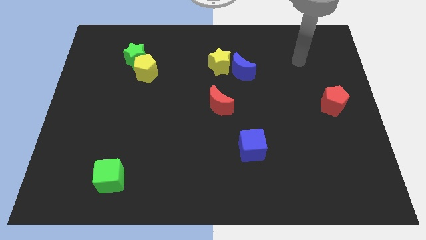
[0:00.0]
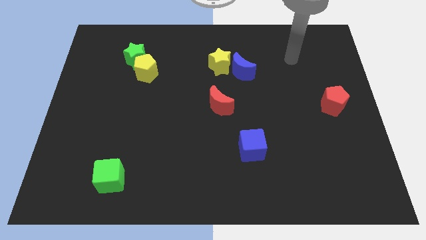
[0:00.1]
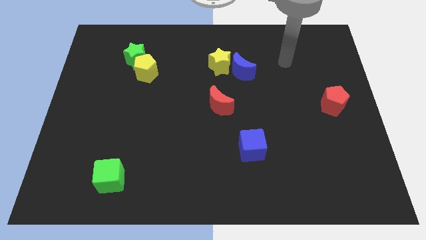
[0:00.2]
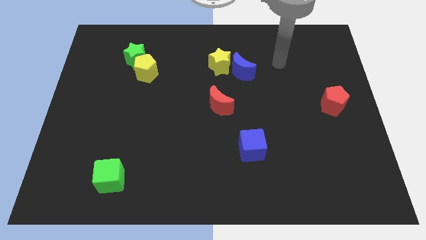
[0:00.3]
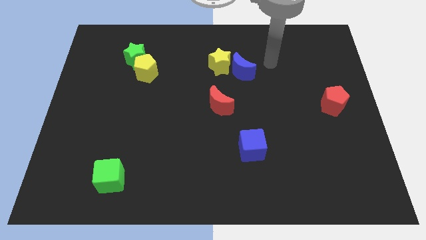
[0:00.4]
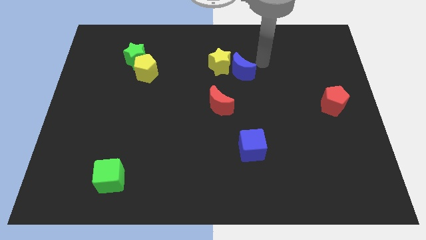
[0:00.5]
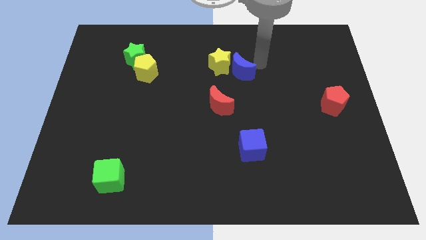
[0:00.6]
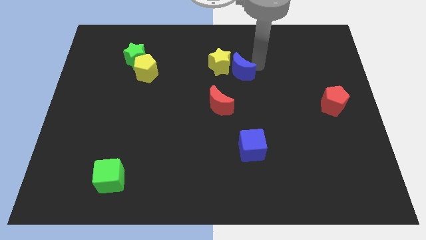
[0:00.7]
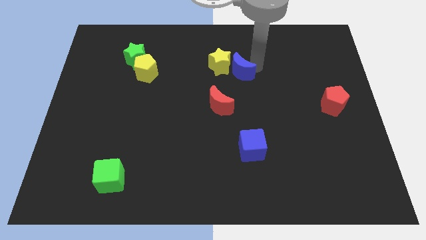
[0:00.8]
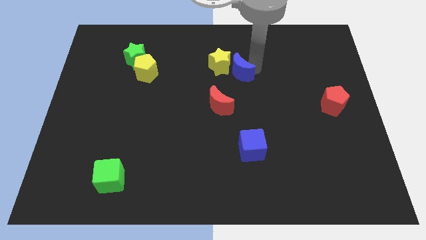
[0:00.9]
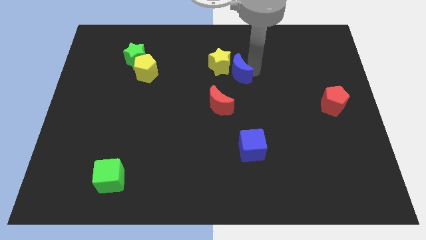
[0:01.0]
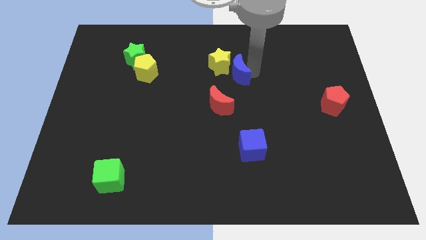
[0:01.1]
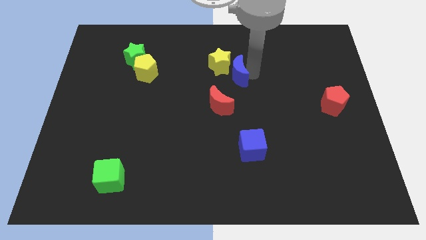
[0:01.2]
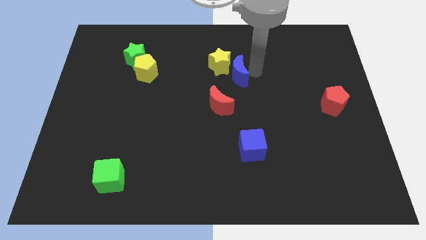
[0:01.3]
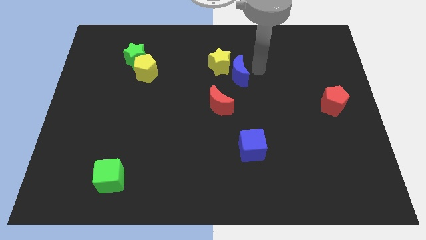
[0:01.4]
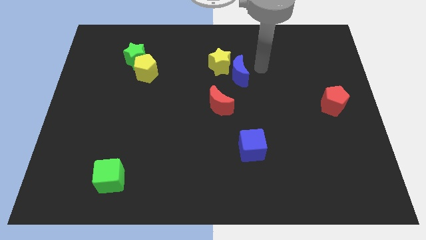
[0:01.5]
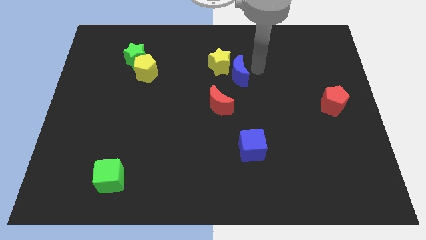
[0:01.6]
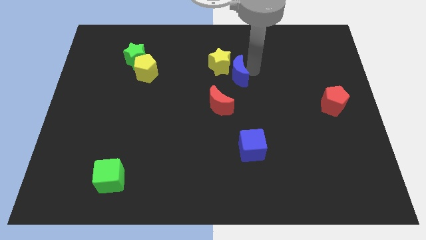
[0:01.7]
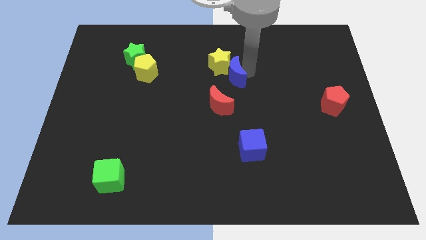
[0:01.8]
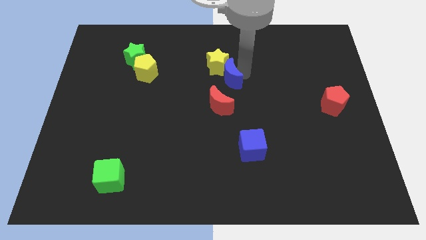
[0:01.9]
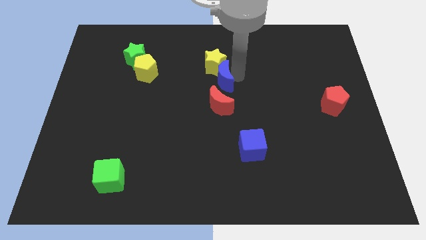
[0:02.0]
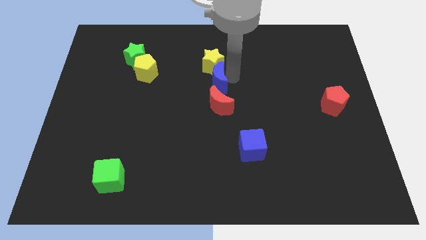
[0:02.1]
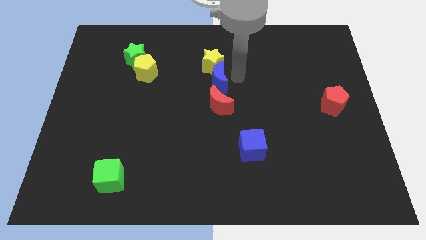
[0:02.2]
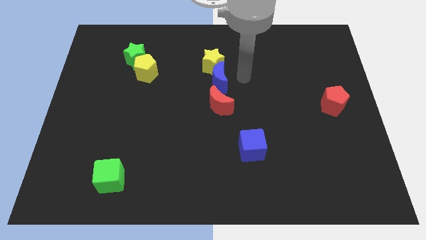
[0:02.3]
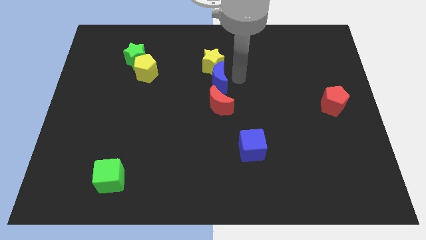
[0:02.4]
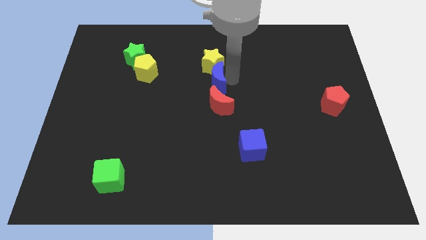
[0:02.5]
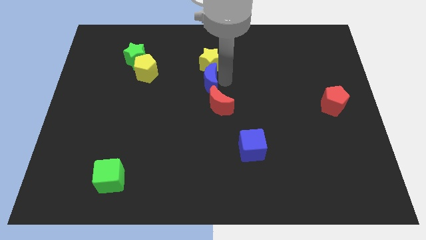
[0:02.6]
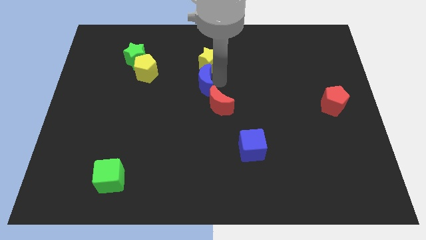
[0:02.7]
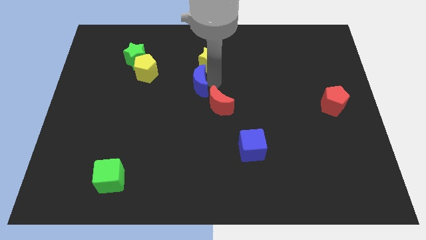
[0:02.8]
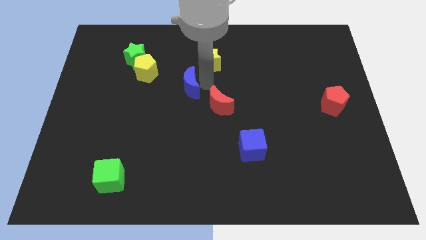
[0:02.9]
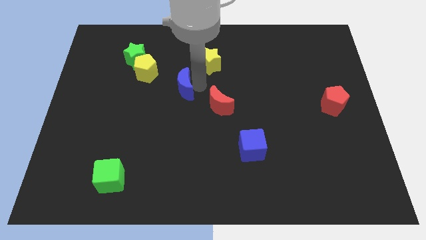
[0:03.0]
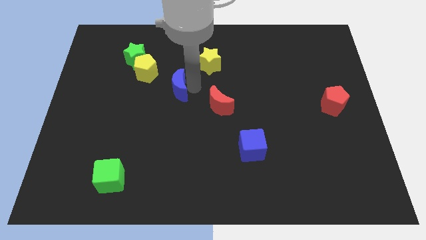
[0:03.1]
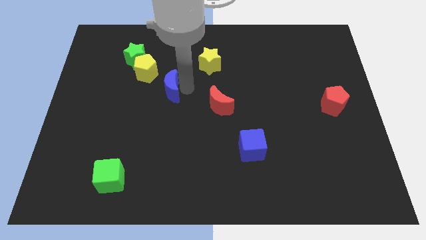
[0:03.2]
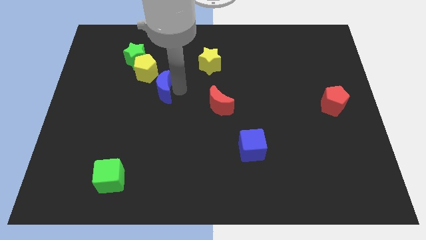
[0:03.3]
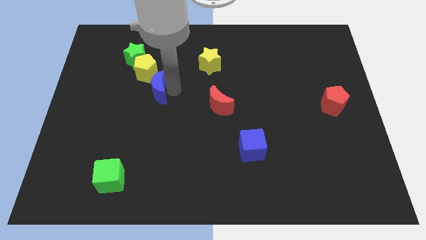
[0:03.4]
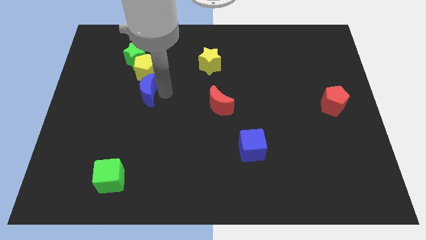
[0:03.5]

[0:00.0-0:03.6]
push the blue moon left

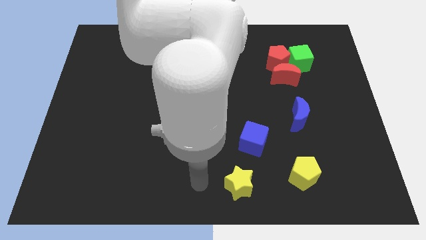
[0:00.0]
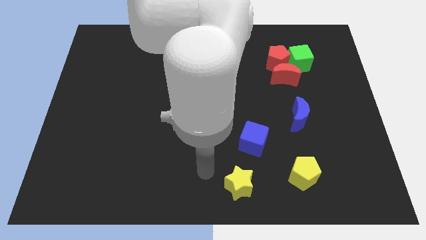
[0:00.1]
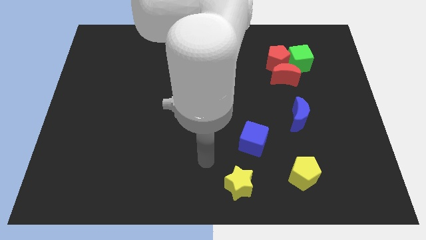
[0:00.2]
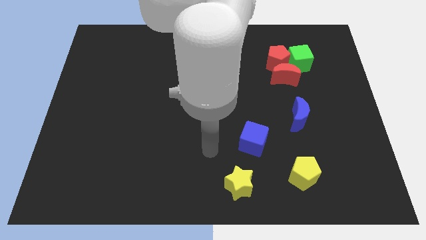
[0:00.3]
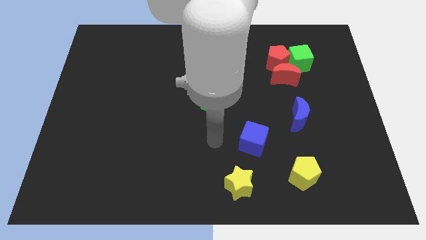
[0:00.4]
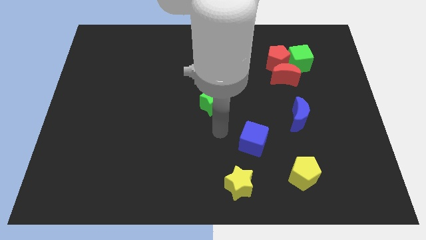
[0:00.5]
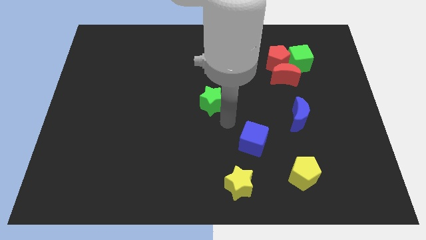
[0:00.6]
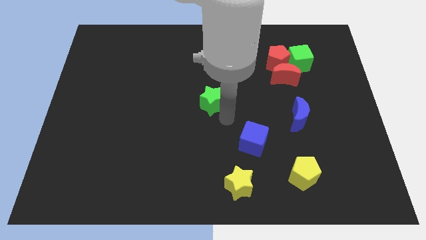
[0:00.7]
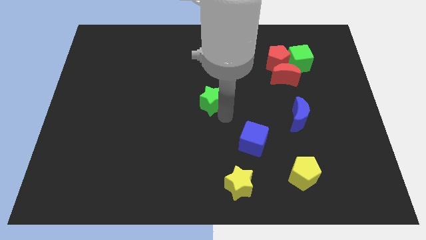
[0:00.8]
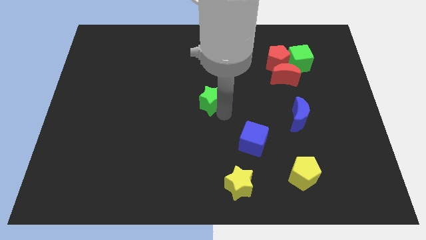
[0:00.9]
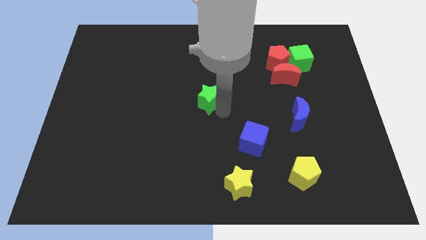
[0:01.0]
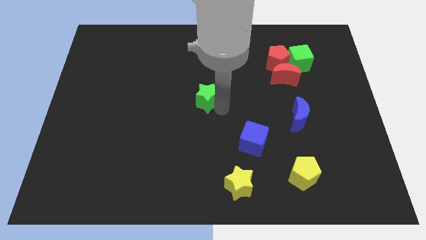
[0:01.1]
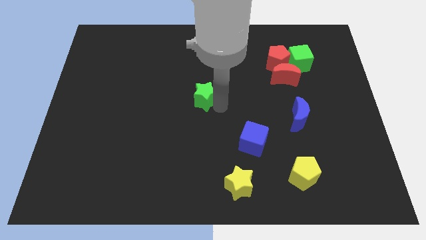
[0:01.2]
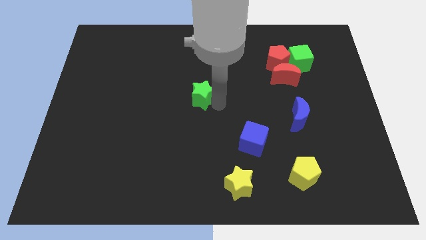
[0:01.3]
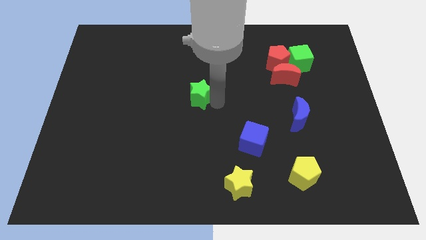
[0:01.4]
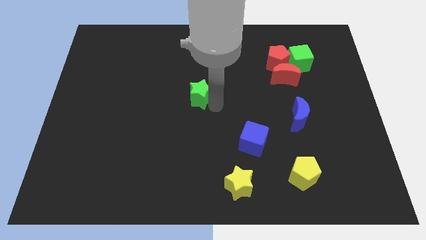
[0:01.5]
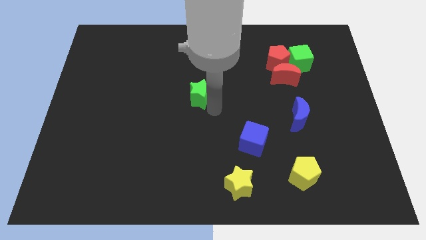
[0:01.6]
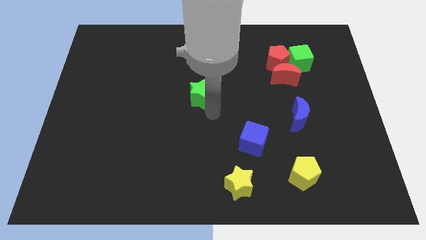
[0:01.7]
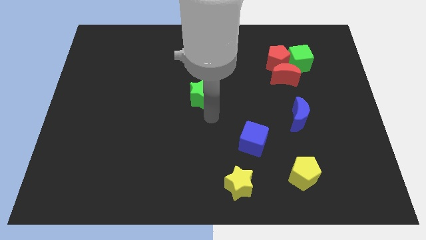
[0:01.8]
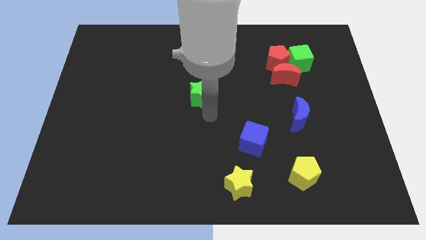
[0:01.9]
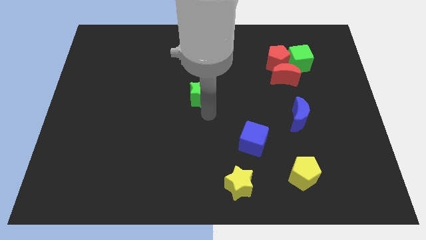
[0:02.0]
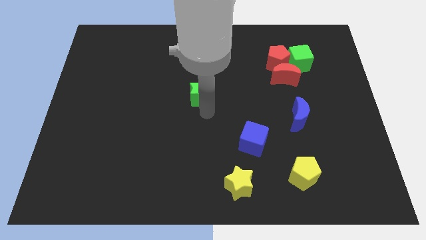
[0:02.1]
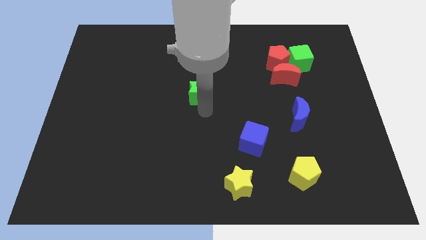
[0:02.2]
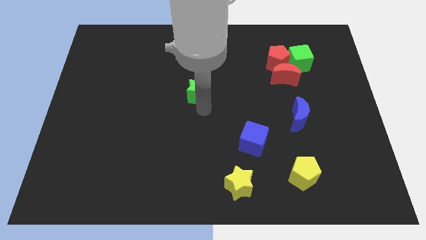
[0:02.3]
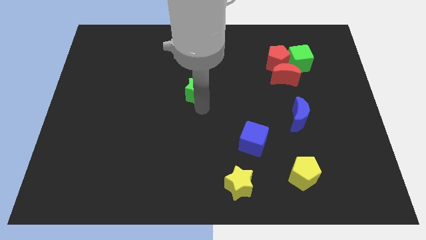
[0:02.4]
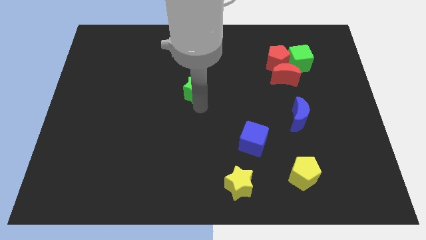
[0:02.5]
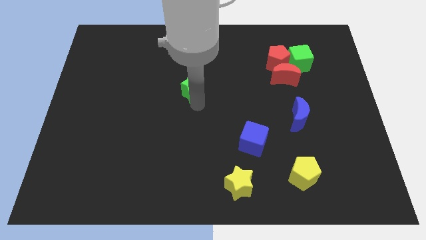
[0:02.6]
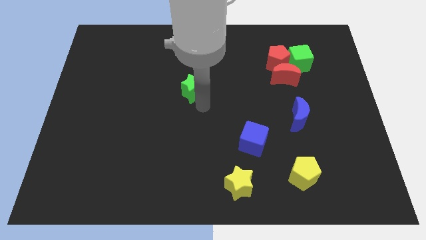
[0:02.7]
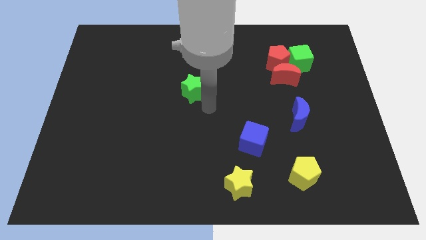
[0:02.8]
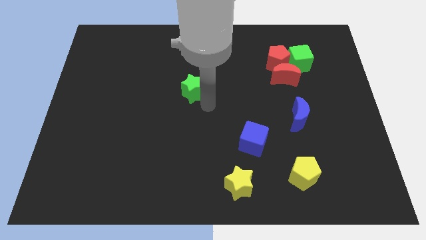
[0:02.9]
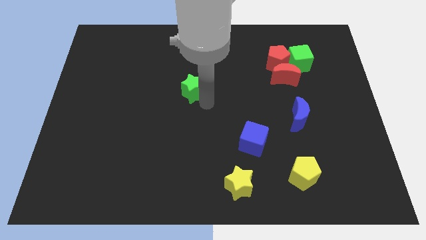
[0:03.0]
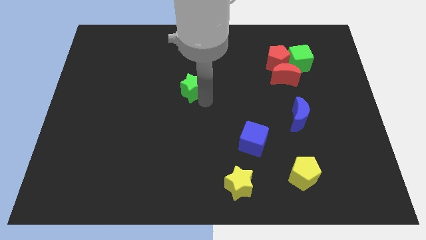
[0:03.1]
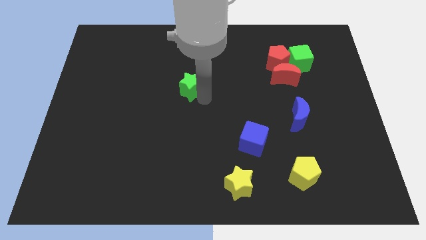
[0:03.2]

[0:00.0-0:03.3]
move the green star a bit upwards and then to the left

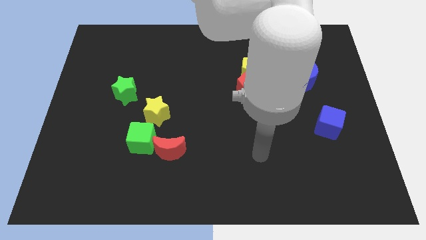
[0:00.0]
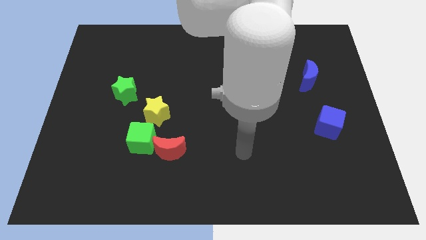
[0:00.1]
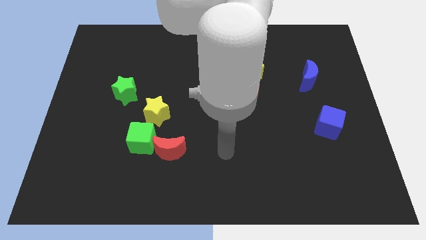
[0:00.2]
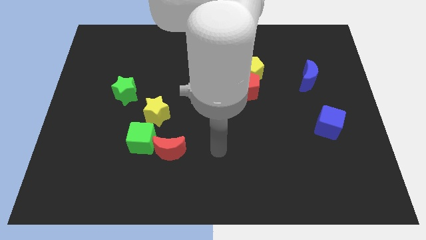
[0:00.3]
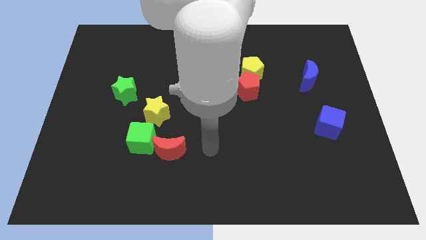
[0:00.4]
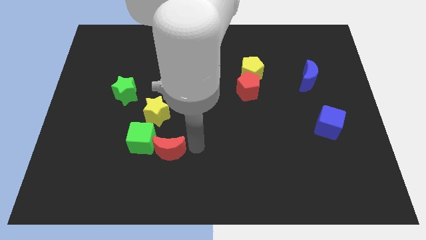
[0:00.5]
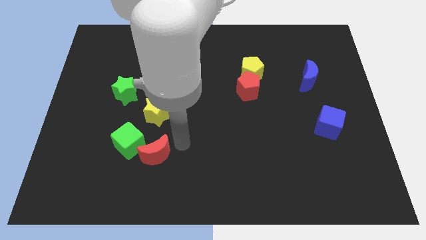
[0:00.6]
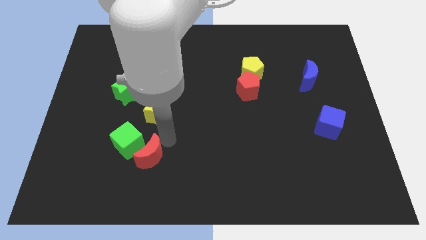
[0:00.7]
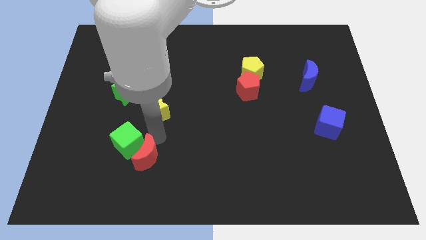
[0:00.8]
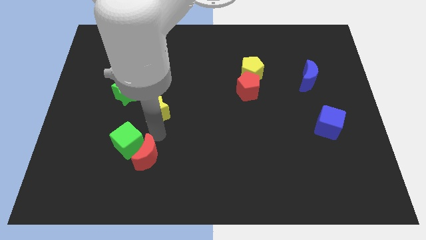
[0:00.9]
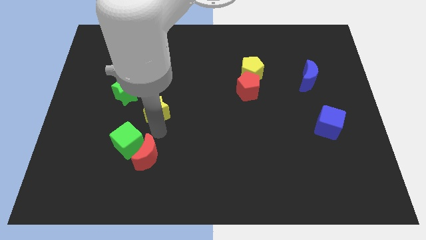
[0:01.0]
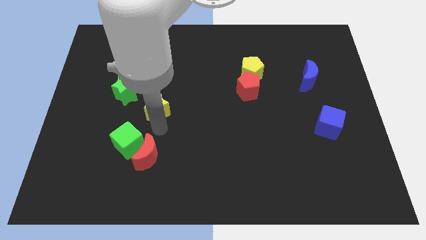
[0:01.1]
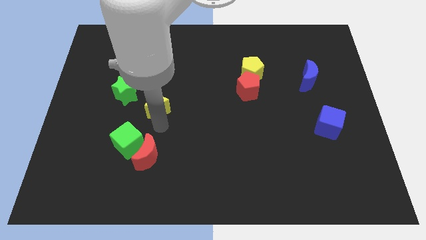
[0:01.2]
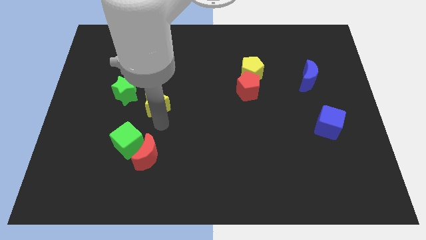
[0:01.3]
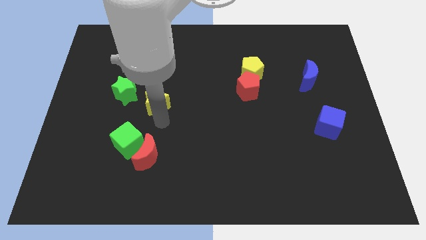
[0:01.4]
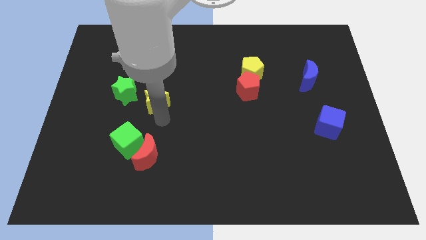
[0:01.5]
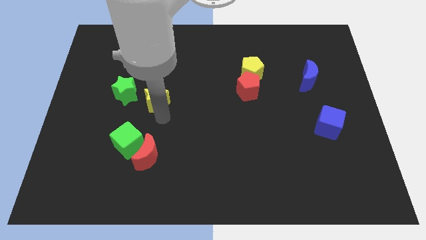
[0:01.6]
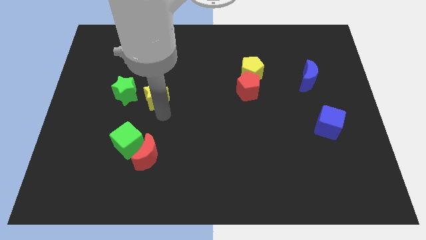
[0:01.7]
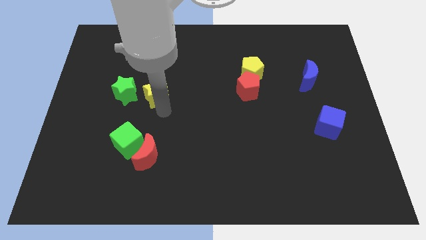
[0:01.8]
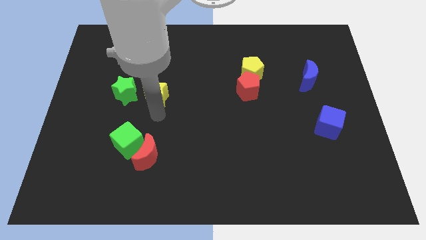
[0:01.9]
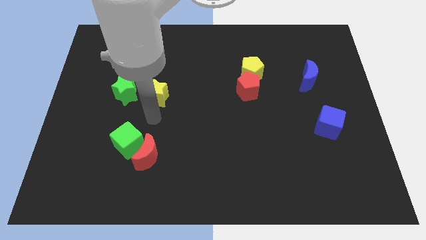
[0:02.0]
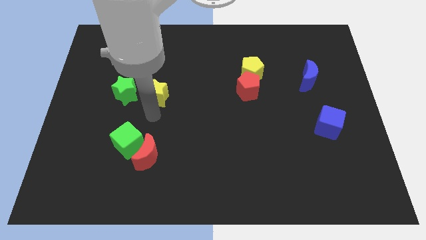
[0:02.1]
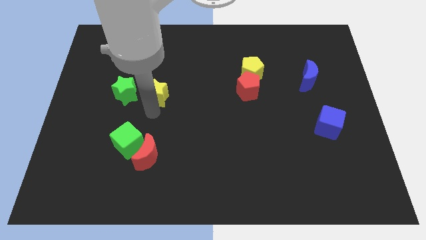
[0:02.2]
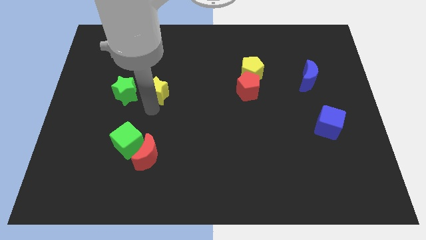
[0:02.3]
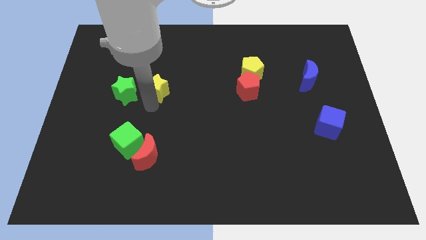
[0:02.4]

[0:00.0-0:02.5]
push the yellow star a little bit upwards
